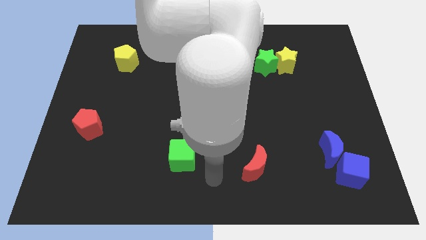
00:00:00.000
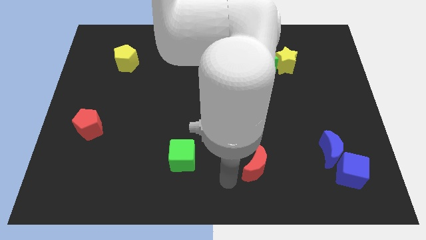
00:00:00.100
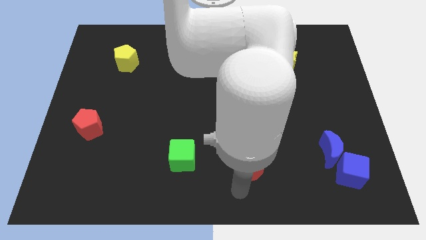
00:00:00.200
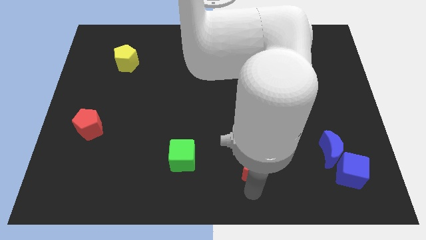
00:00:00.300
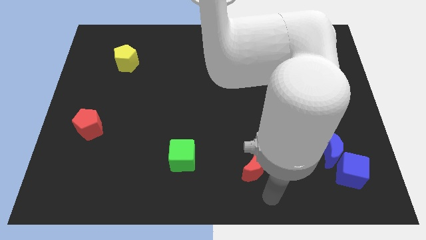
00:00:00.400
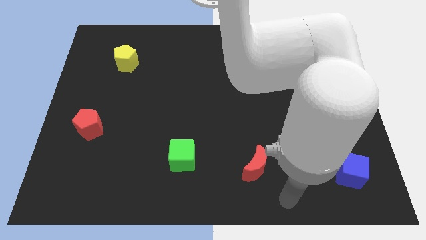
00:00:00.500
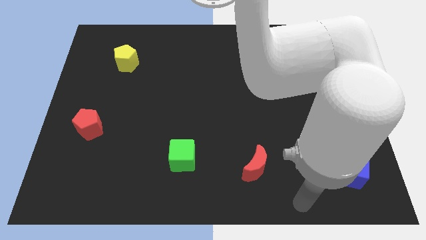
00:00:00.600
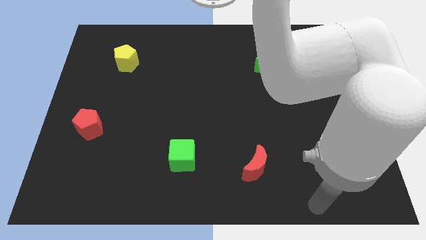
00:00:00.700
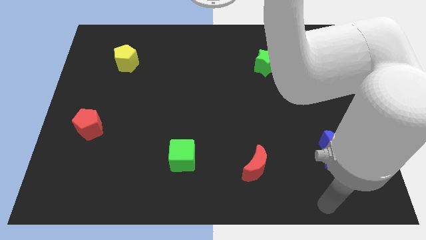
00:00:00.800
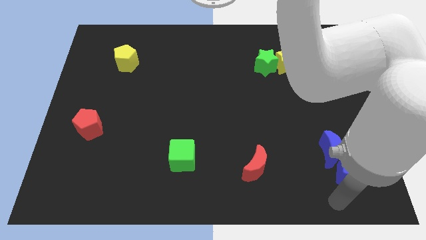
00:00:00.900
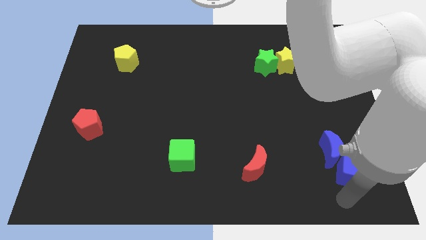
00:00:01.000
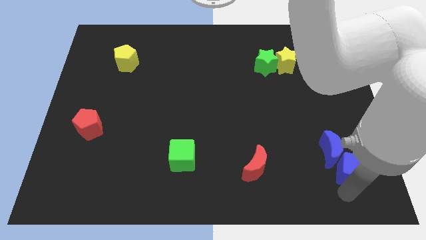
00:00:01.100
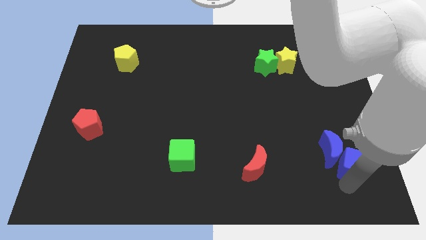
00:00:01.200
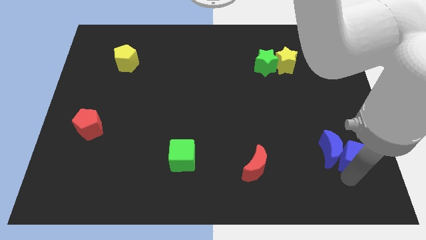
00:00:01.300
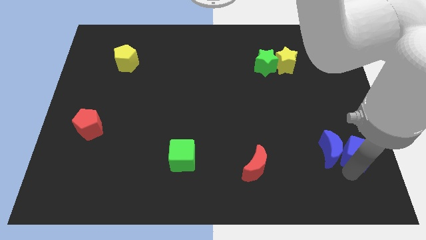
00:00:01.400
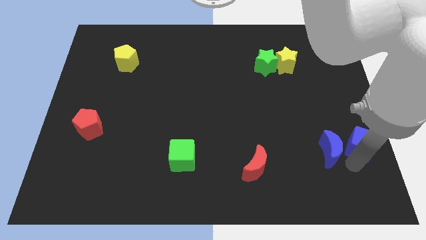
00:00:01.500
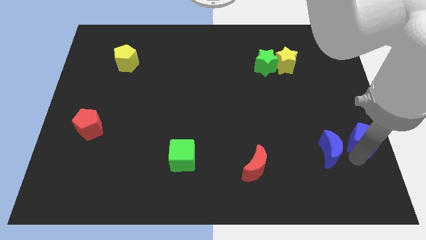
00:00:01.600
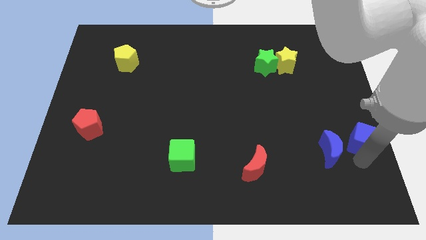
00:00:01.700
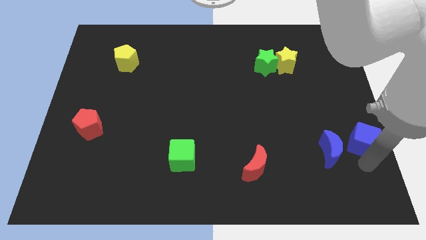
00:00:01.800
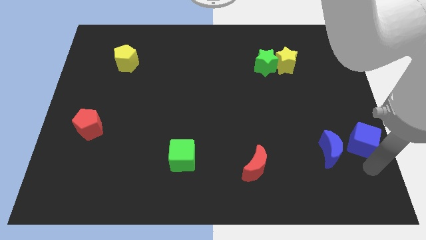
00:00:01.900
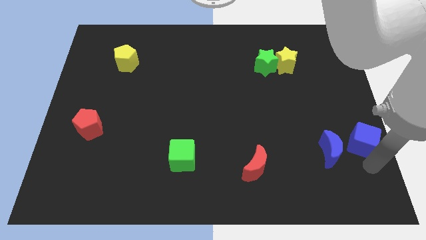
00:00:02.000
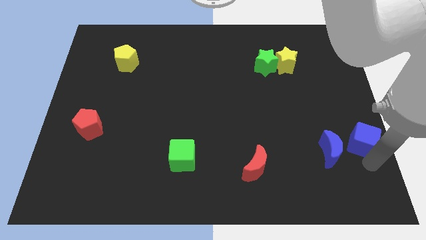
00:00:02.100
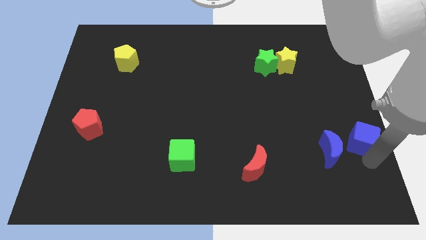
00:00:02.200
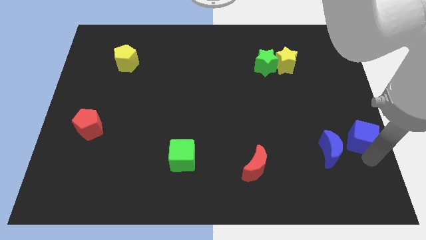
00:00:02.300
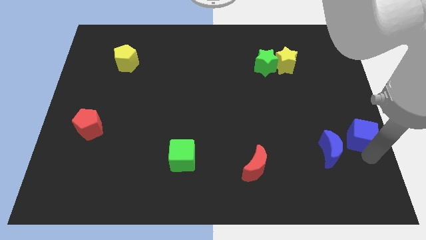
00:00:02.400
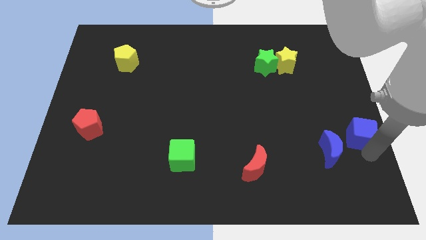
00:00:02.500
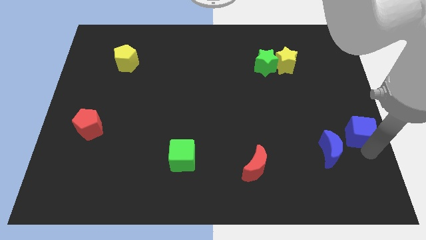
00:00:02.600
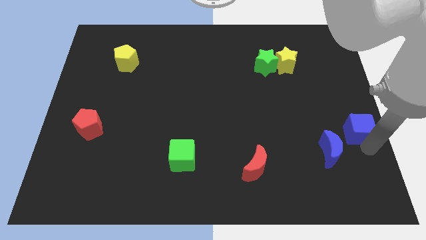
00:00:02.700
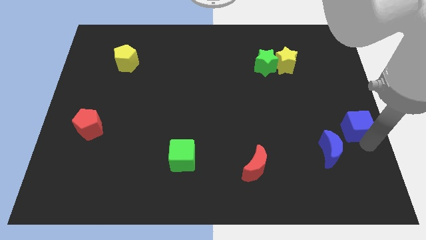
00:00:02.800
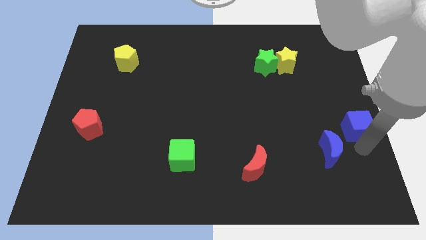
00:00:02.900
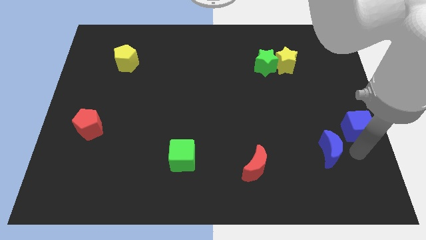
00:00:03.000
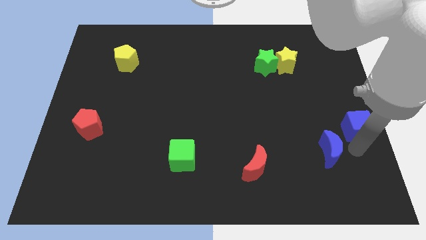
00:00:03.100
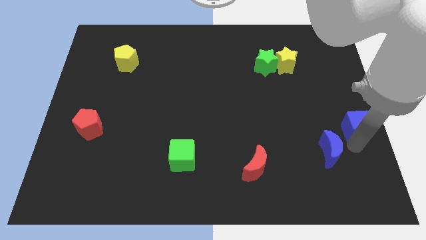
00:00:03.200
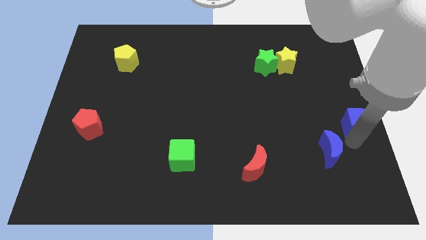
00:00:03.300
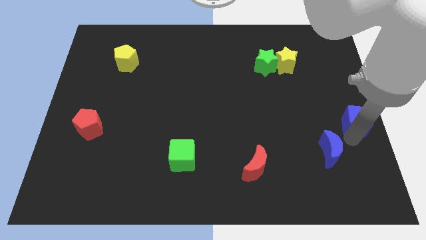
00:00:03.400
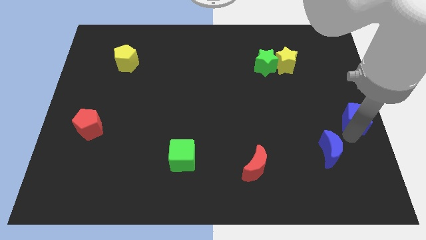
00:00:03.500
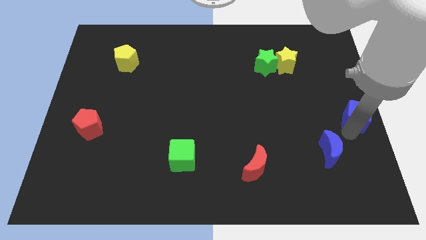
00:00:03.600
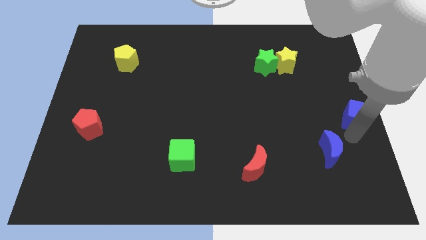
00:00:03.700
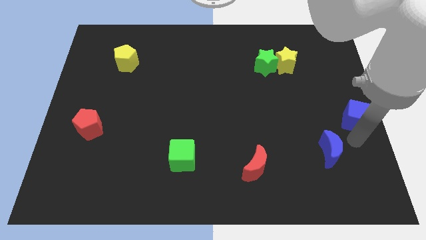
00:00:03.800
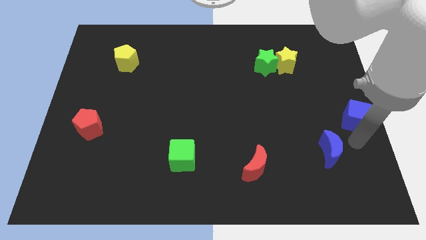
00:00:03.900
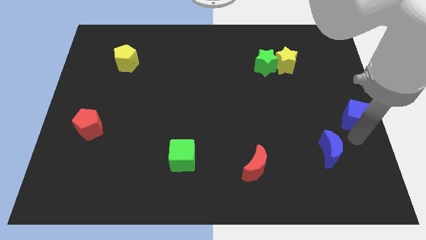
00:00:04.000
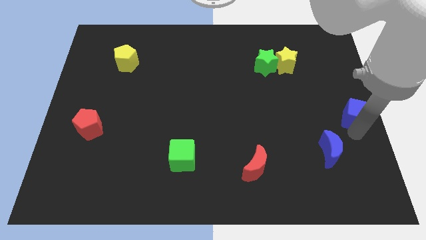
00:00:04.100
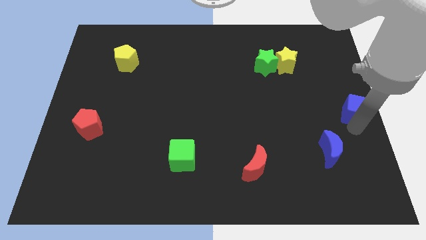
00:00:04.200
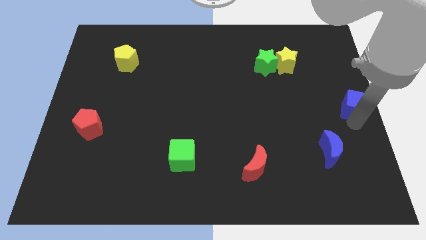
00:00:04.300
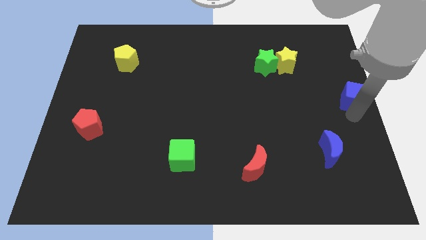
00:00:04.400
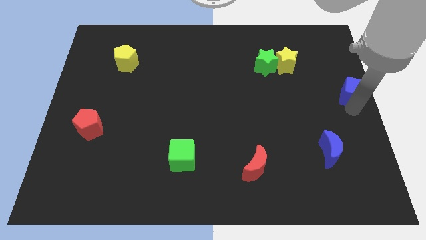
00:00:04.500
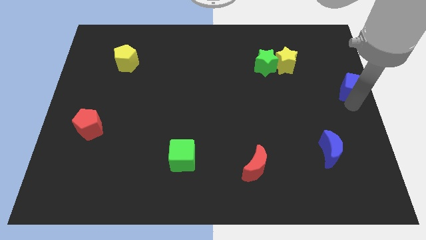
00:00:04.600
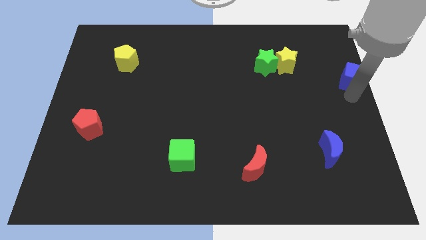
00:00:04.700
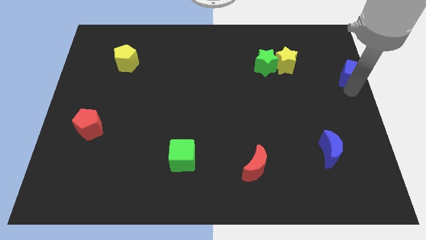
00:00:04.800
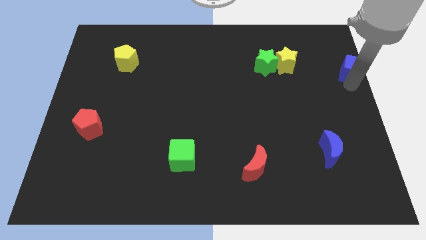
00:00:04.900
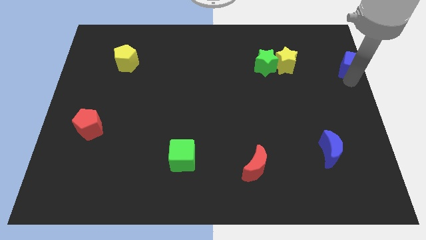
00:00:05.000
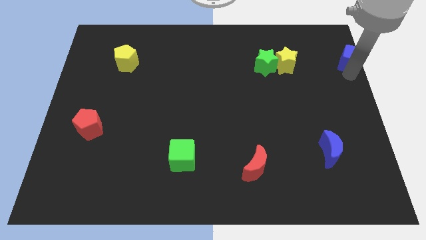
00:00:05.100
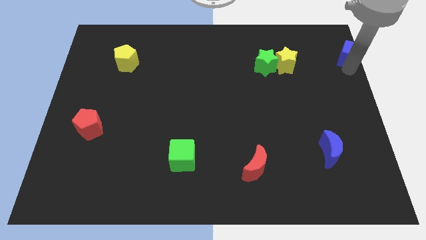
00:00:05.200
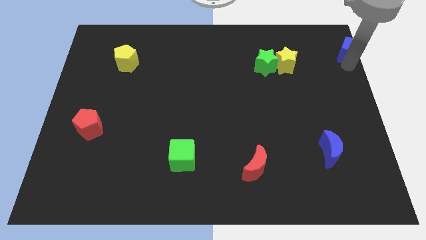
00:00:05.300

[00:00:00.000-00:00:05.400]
slide the blue cube to the top right
